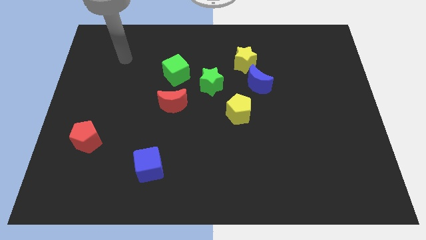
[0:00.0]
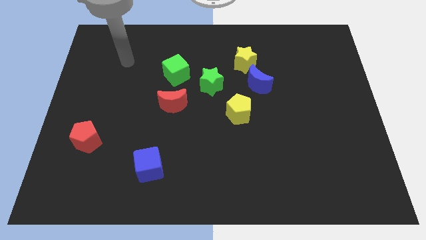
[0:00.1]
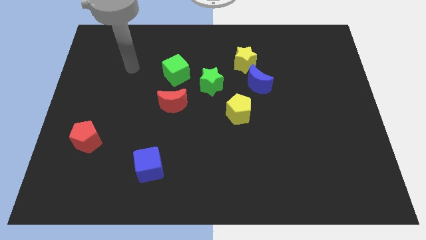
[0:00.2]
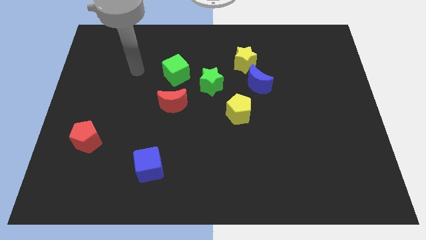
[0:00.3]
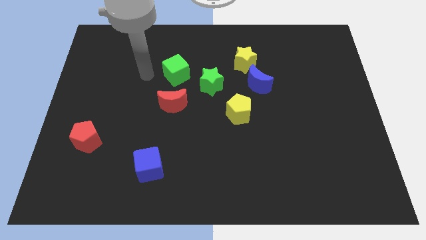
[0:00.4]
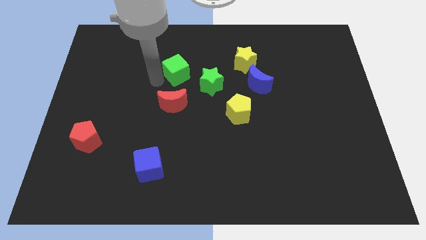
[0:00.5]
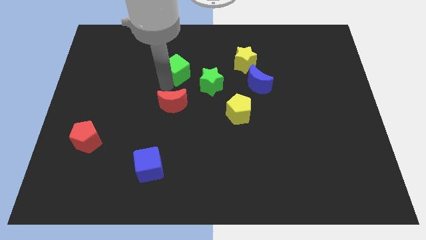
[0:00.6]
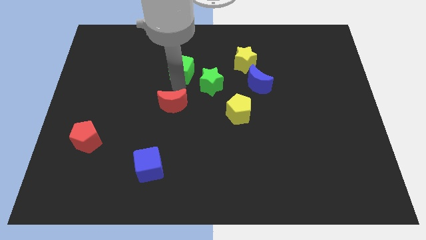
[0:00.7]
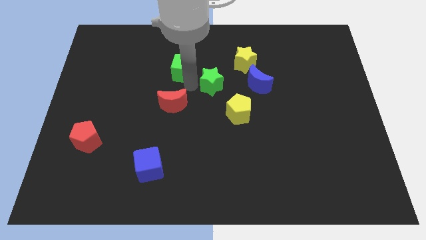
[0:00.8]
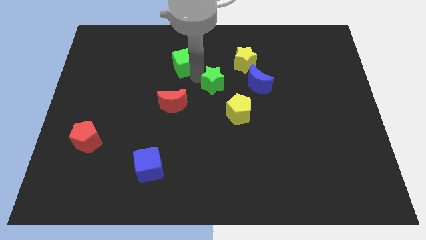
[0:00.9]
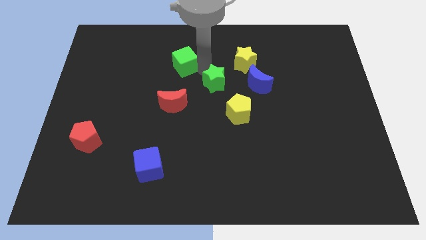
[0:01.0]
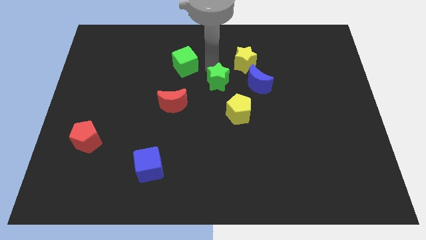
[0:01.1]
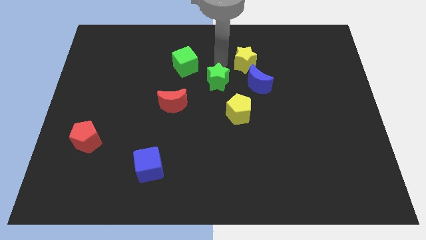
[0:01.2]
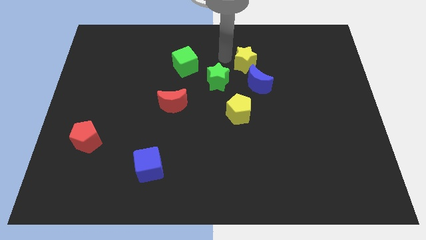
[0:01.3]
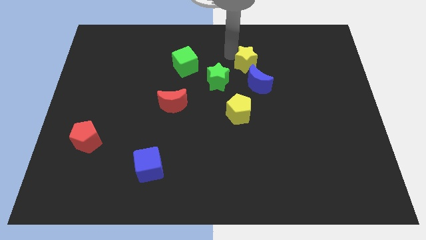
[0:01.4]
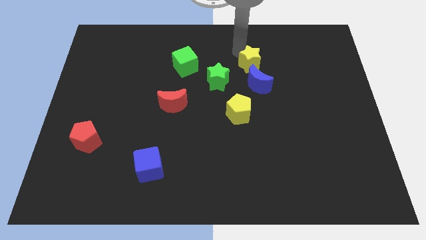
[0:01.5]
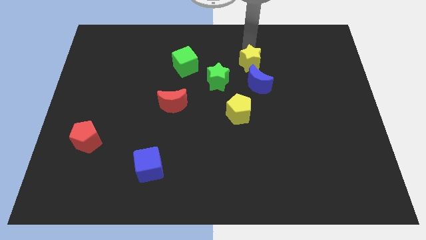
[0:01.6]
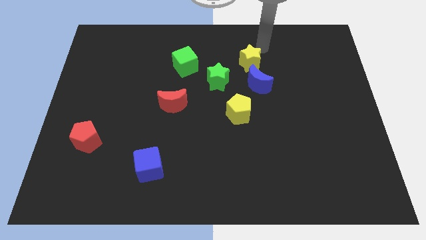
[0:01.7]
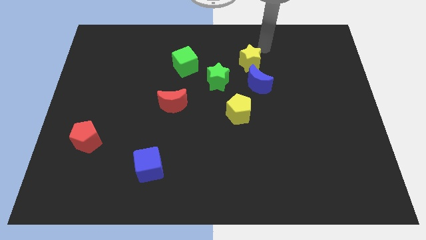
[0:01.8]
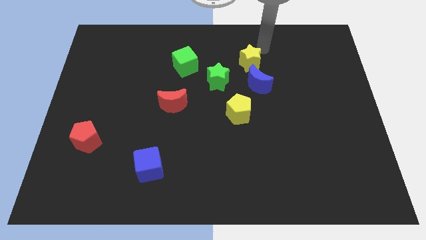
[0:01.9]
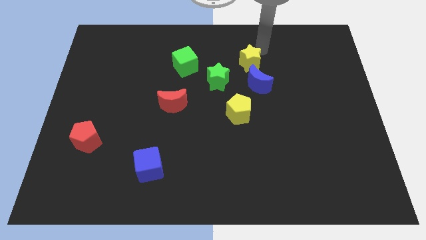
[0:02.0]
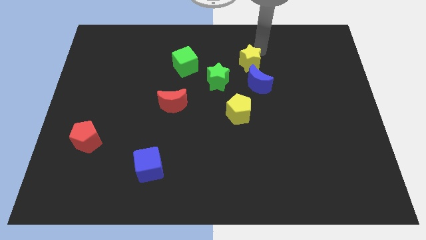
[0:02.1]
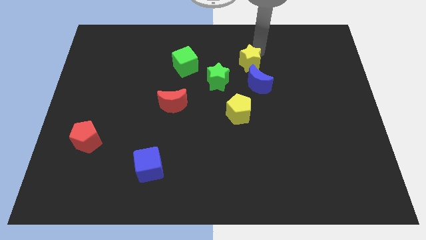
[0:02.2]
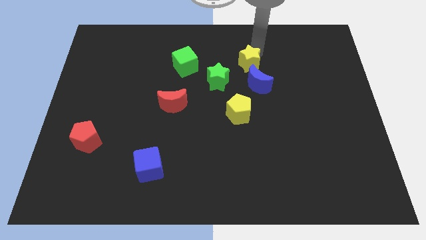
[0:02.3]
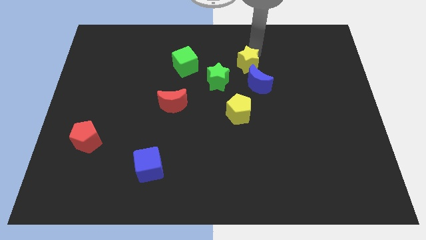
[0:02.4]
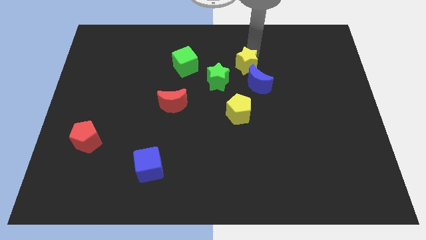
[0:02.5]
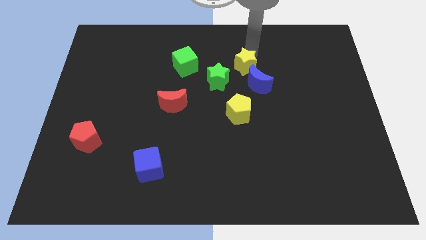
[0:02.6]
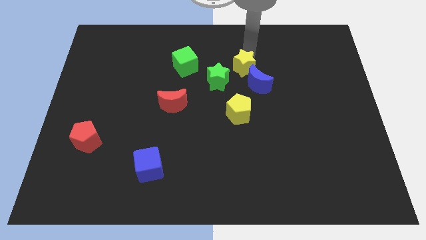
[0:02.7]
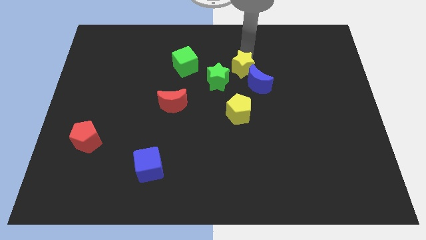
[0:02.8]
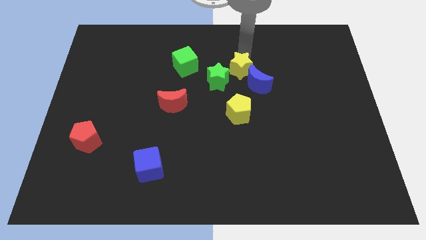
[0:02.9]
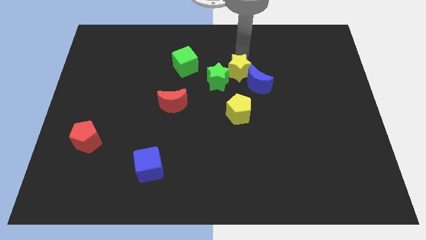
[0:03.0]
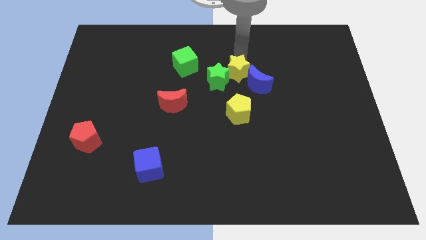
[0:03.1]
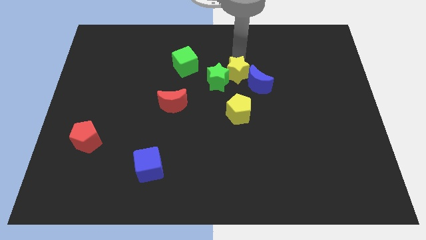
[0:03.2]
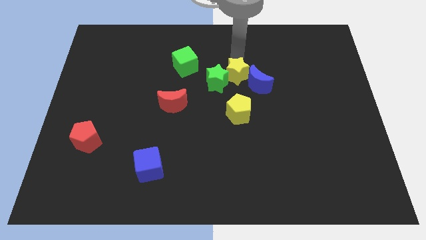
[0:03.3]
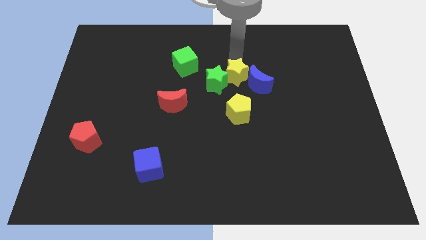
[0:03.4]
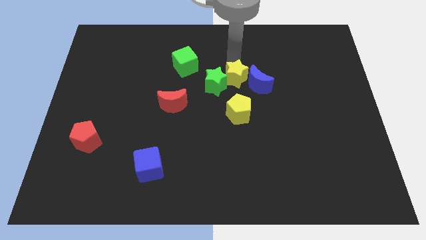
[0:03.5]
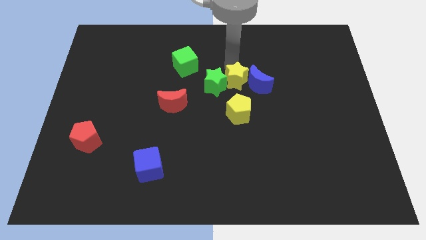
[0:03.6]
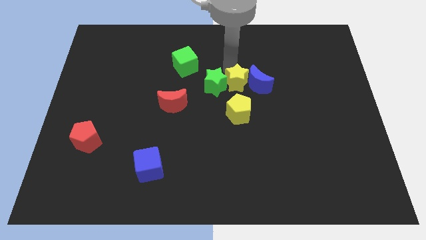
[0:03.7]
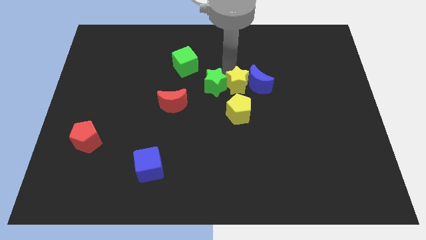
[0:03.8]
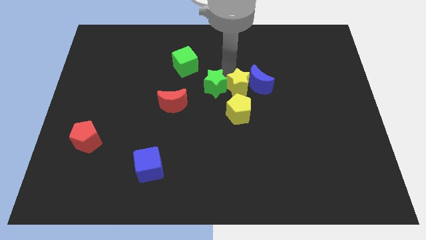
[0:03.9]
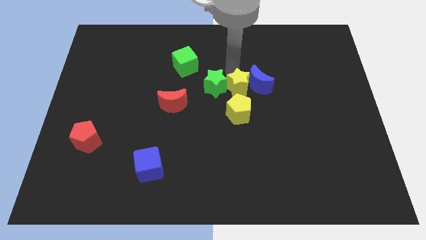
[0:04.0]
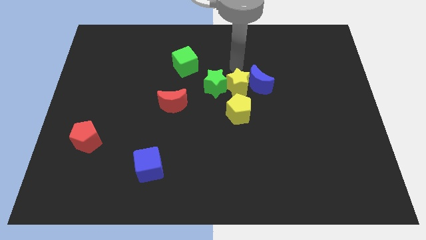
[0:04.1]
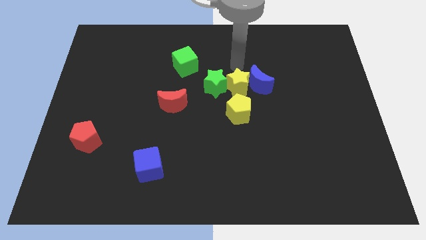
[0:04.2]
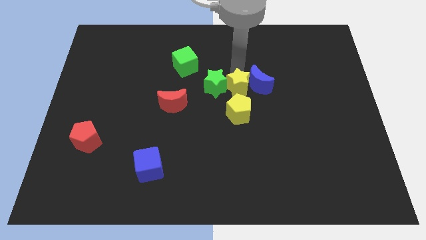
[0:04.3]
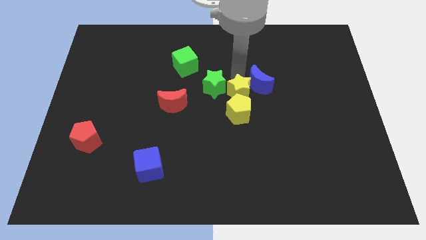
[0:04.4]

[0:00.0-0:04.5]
put the yellow star towards the yellow pentagon

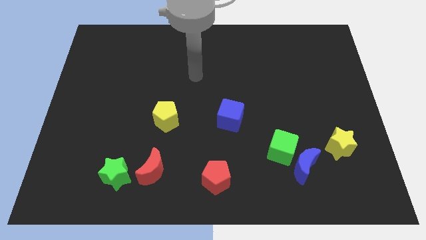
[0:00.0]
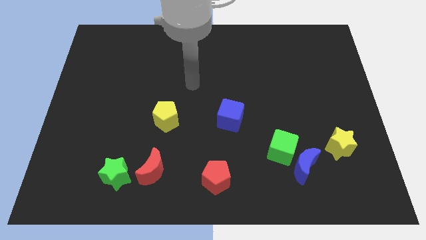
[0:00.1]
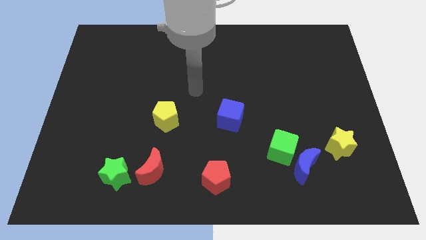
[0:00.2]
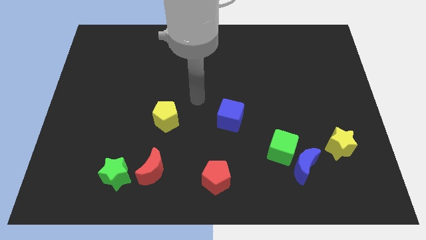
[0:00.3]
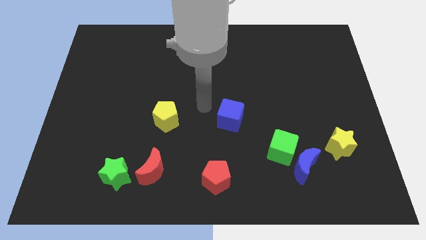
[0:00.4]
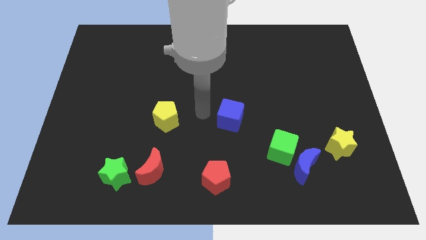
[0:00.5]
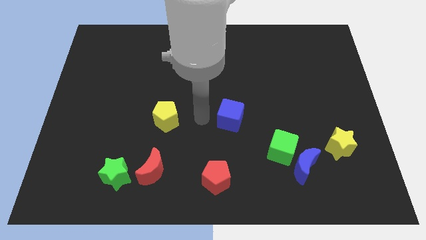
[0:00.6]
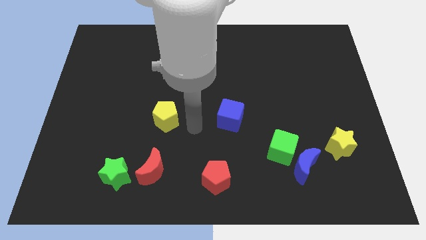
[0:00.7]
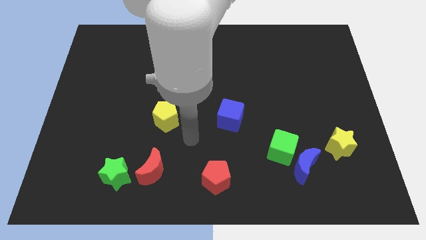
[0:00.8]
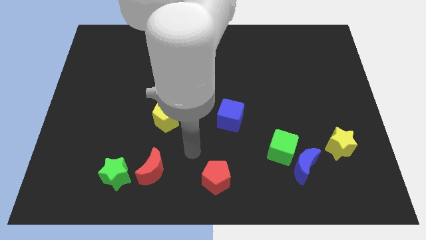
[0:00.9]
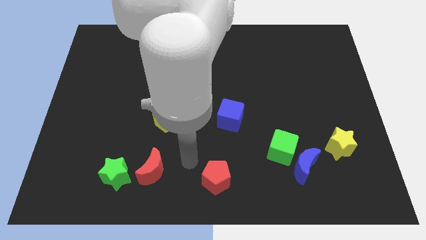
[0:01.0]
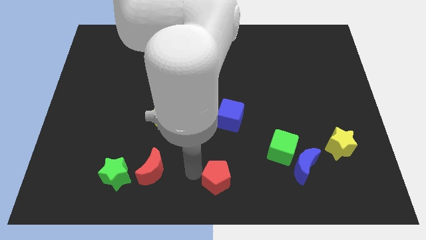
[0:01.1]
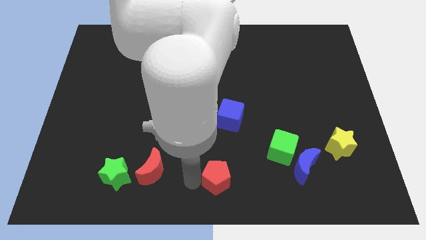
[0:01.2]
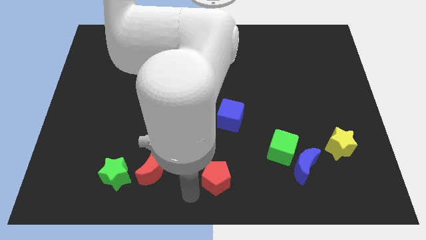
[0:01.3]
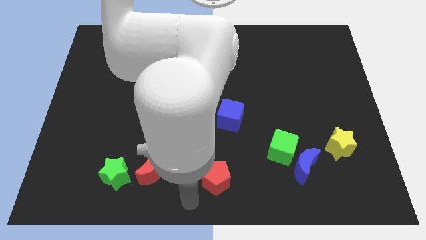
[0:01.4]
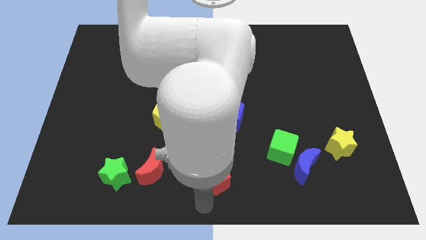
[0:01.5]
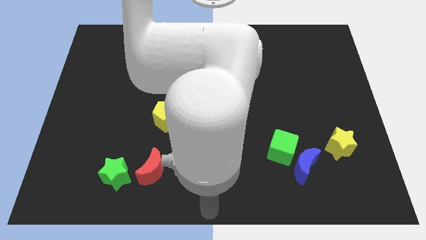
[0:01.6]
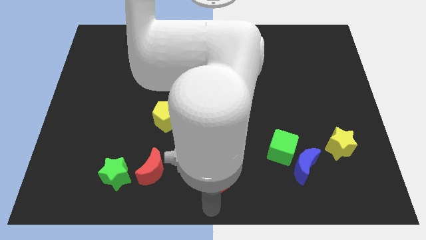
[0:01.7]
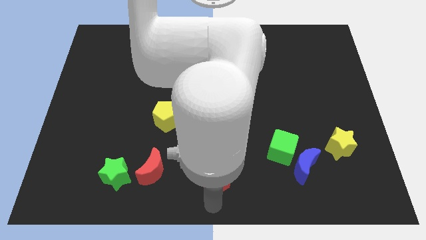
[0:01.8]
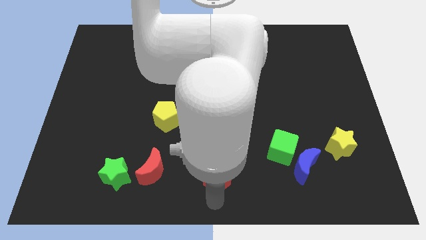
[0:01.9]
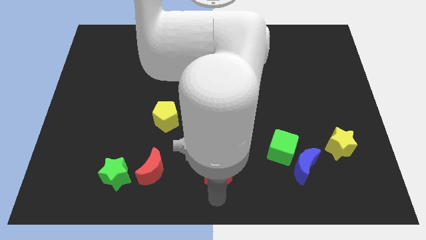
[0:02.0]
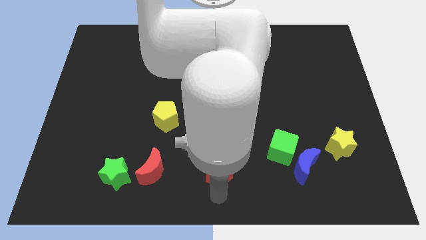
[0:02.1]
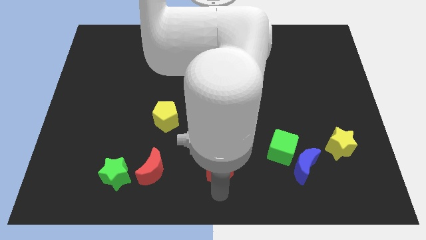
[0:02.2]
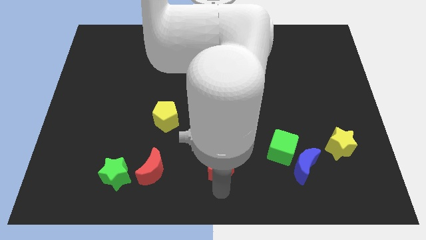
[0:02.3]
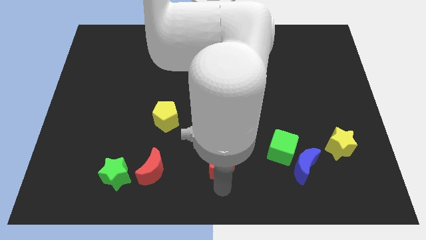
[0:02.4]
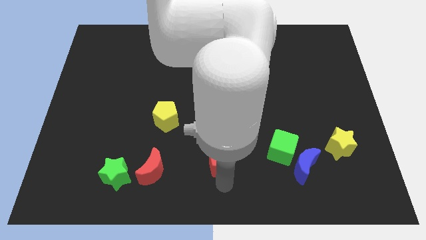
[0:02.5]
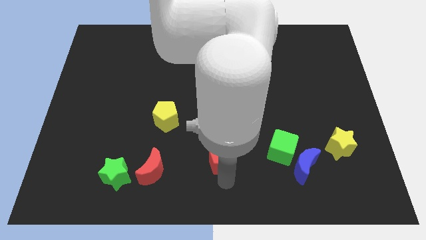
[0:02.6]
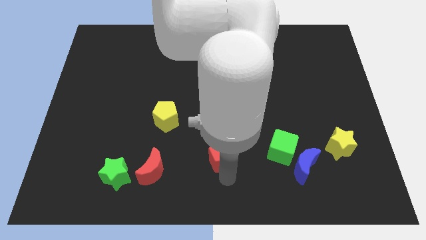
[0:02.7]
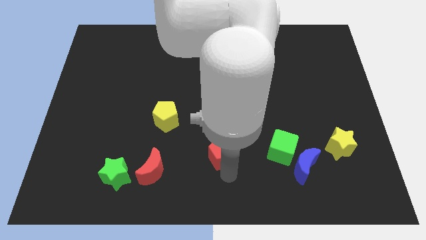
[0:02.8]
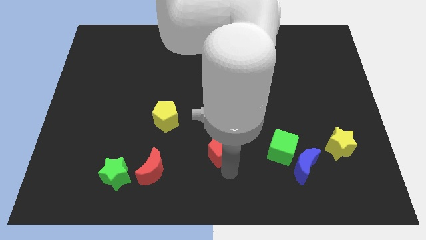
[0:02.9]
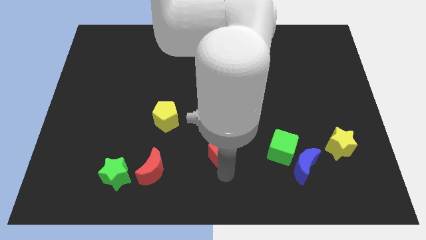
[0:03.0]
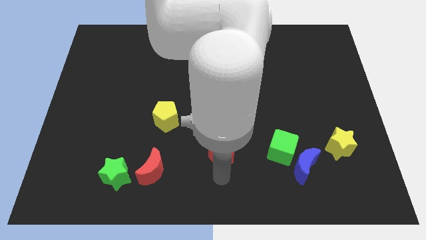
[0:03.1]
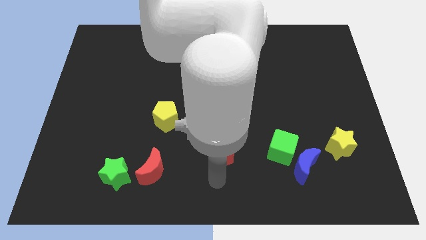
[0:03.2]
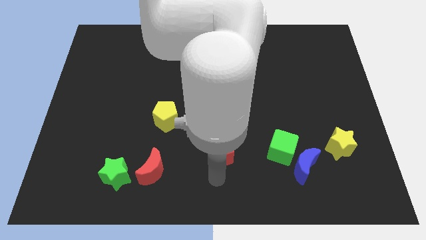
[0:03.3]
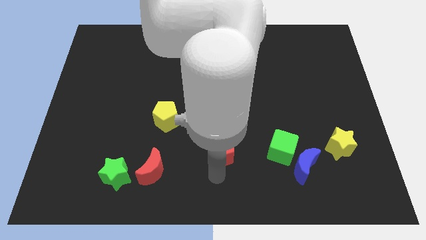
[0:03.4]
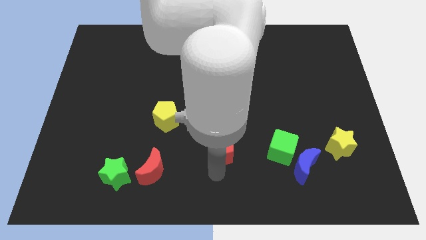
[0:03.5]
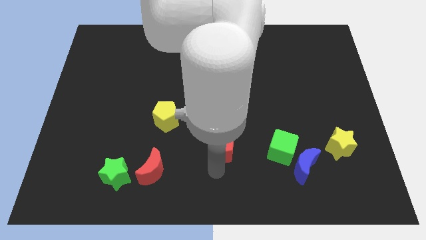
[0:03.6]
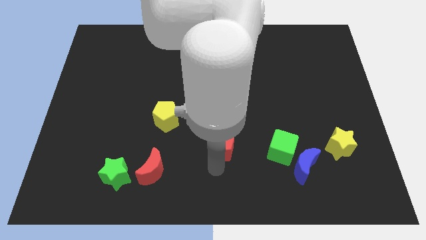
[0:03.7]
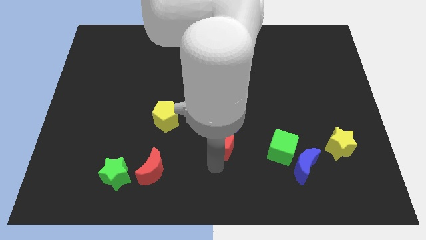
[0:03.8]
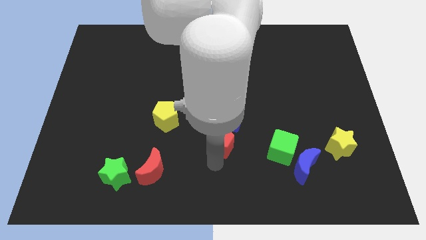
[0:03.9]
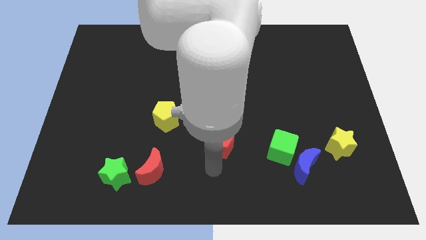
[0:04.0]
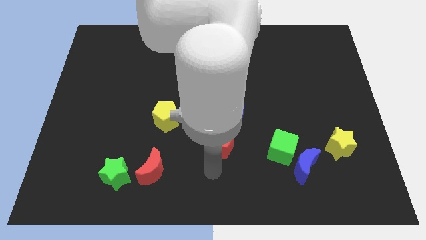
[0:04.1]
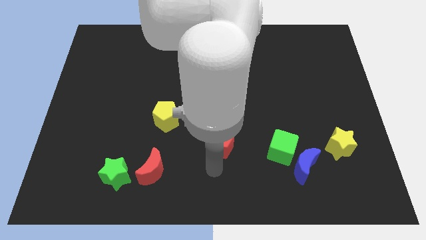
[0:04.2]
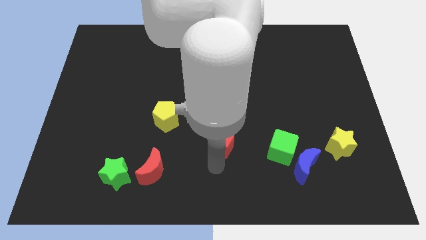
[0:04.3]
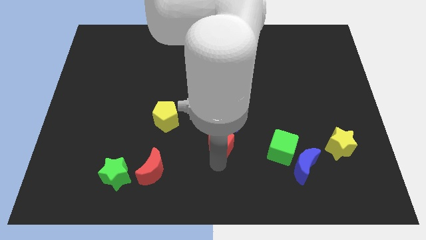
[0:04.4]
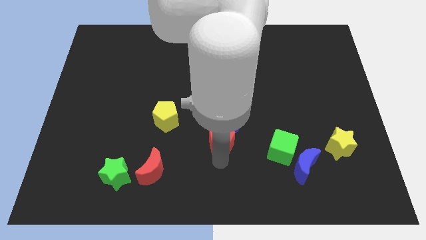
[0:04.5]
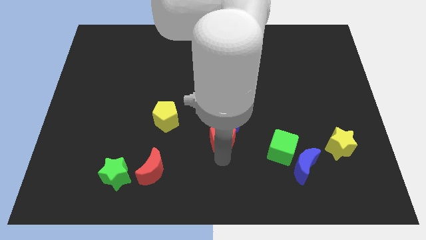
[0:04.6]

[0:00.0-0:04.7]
slide the red pentagon close to the blue cube
